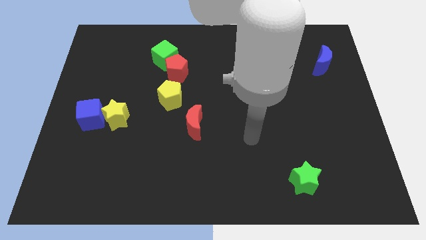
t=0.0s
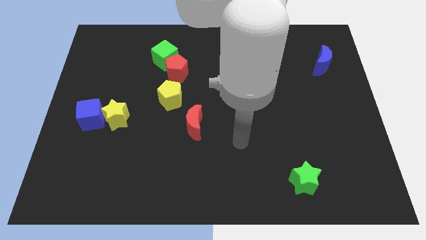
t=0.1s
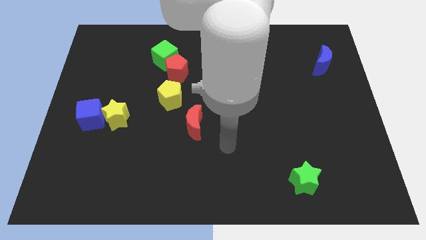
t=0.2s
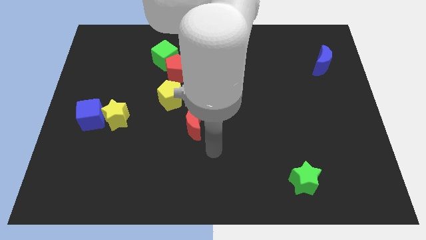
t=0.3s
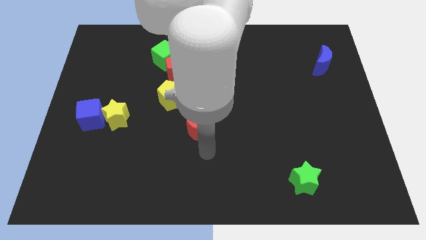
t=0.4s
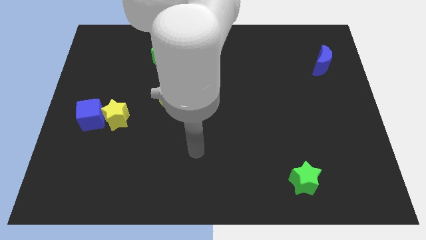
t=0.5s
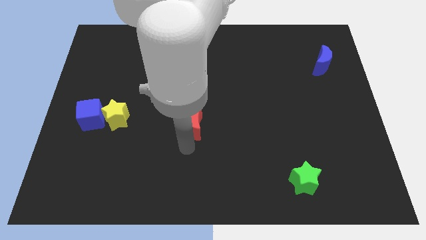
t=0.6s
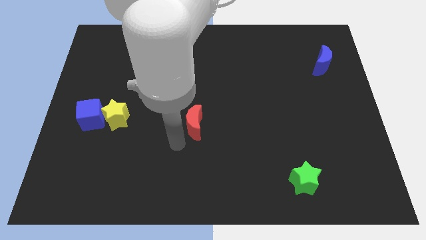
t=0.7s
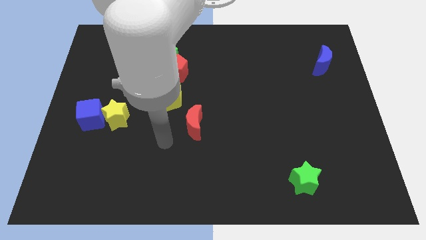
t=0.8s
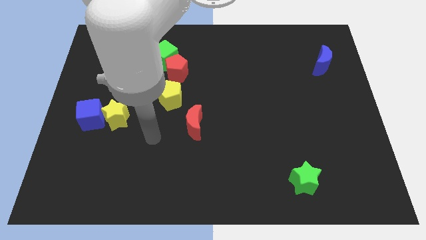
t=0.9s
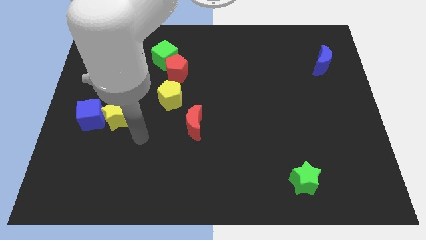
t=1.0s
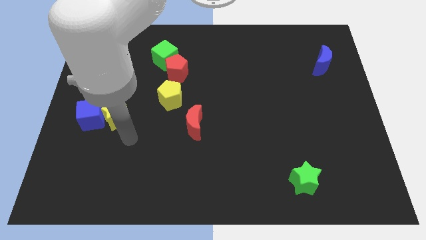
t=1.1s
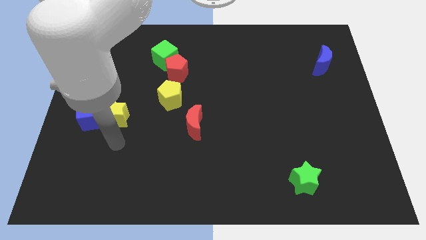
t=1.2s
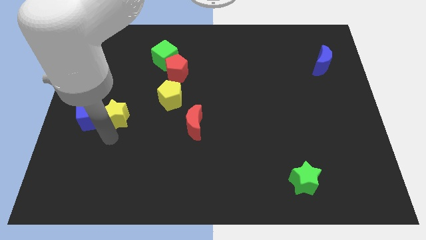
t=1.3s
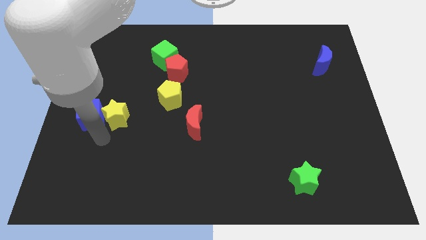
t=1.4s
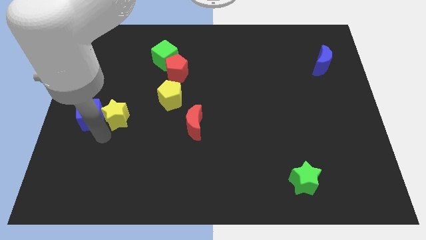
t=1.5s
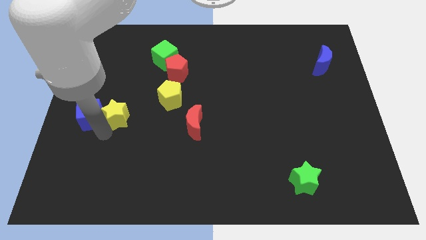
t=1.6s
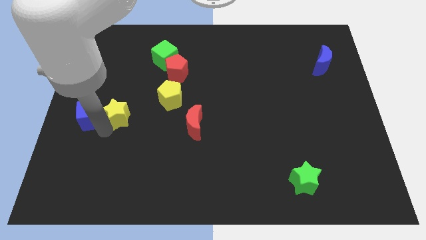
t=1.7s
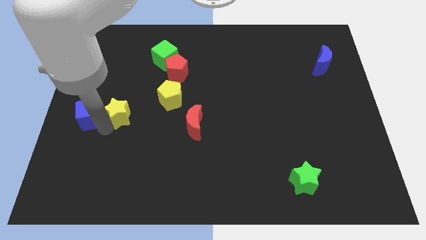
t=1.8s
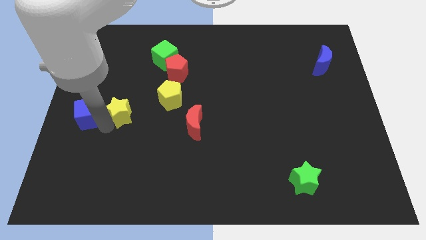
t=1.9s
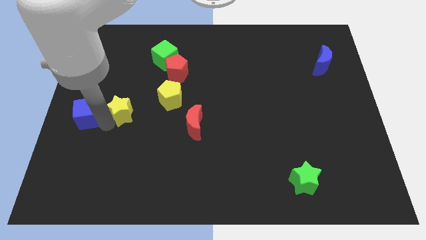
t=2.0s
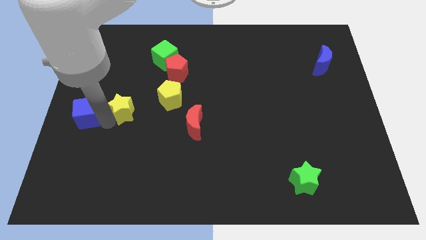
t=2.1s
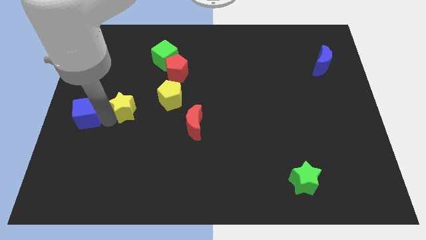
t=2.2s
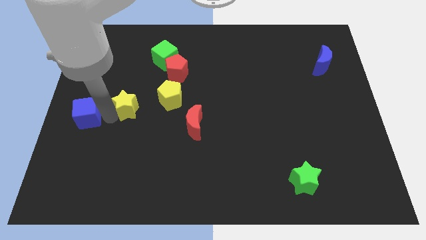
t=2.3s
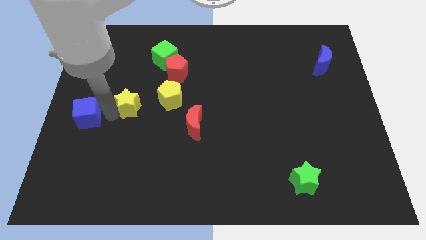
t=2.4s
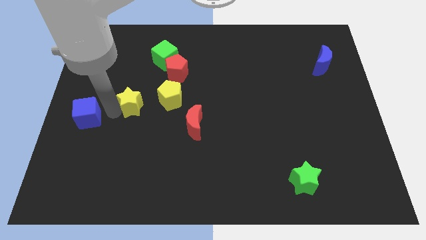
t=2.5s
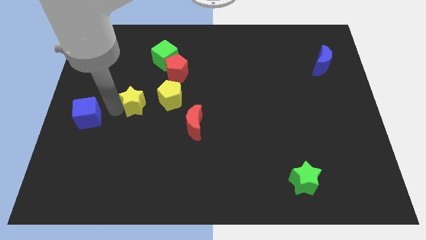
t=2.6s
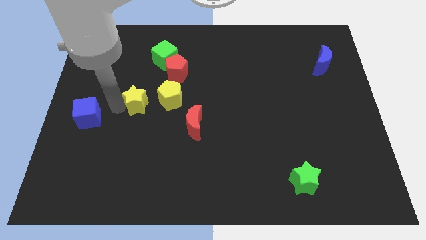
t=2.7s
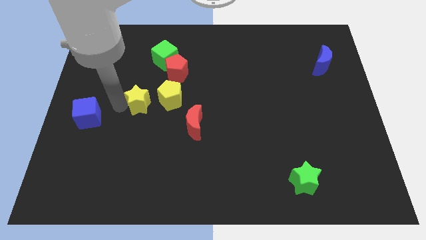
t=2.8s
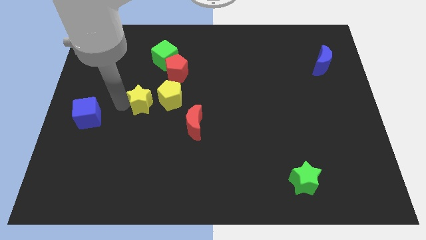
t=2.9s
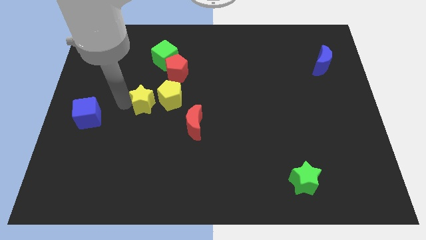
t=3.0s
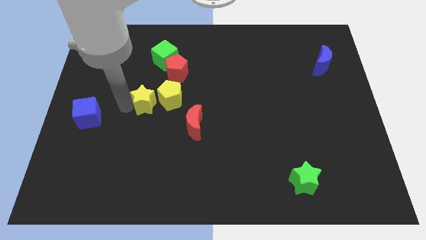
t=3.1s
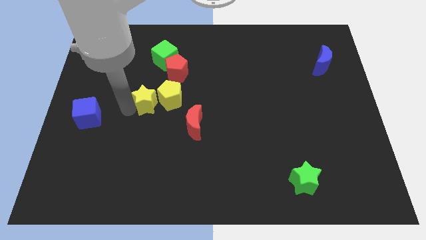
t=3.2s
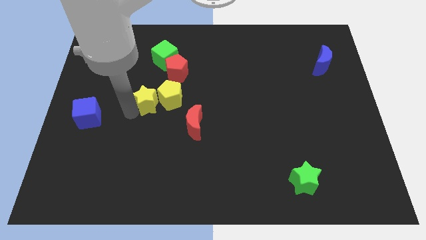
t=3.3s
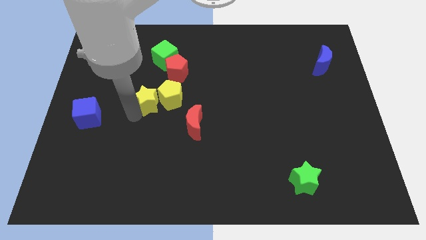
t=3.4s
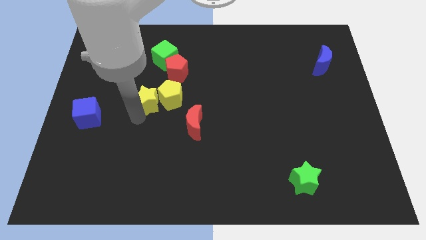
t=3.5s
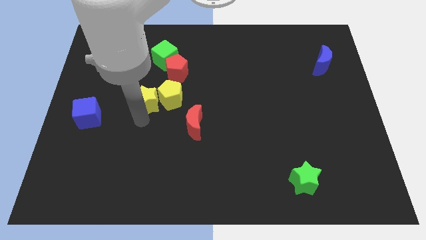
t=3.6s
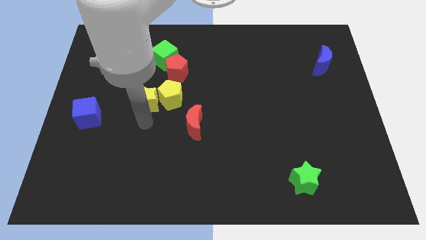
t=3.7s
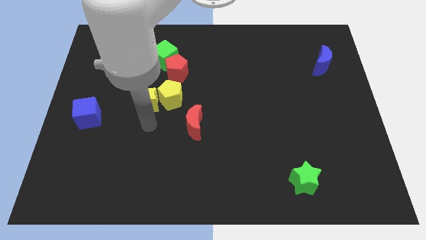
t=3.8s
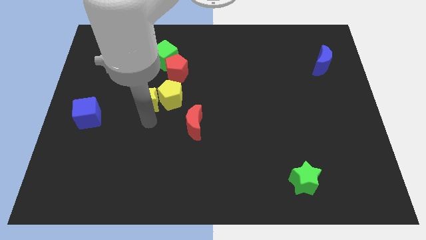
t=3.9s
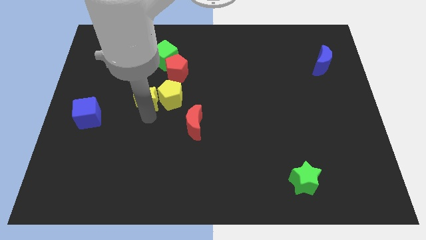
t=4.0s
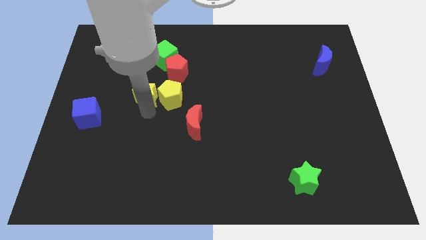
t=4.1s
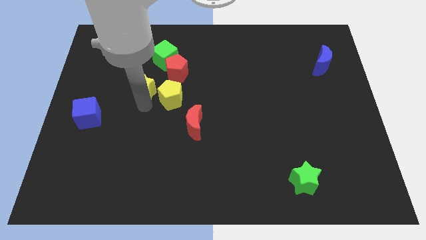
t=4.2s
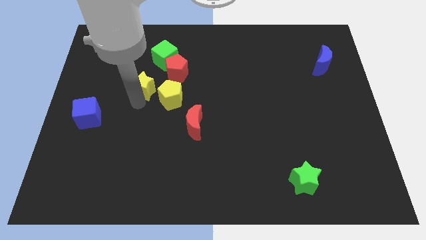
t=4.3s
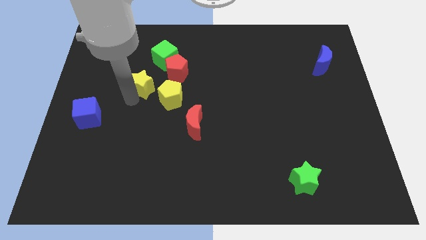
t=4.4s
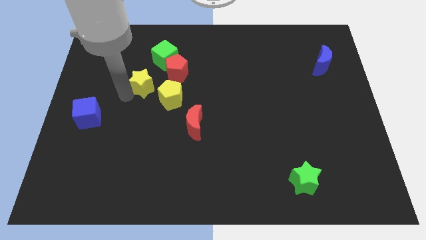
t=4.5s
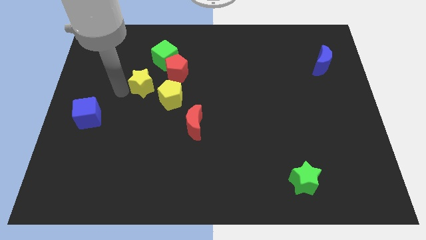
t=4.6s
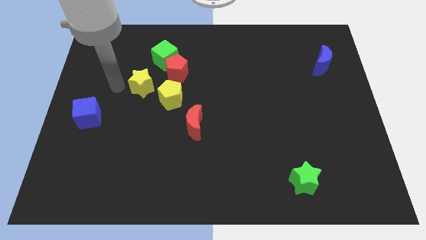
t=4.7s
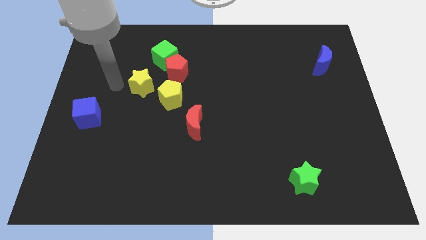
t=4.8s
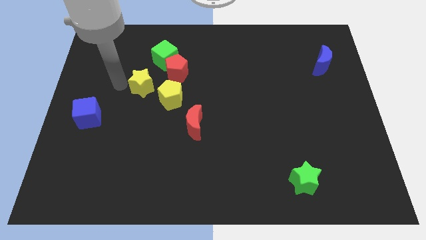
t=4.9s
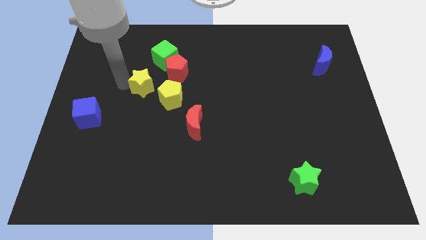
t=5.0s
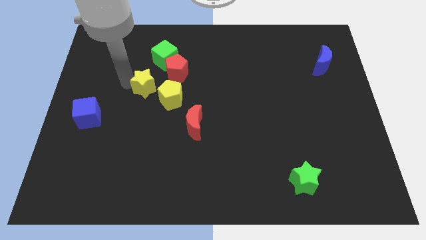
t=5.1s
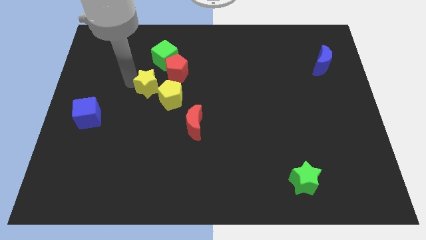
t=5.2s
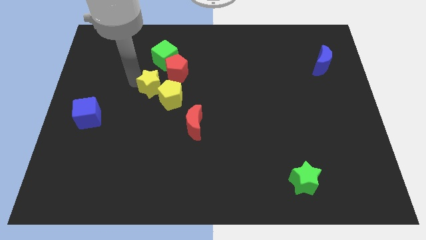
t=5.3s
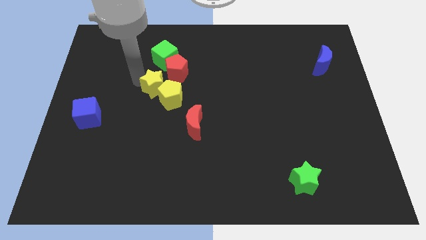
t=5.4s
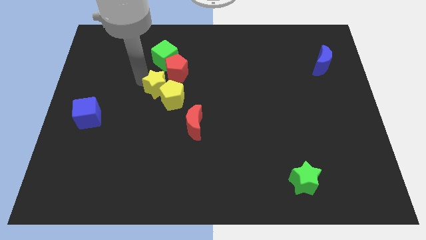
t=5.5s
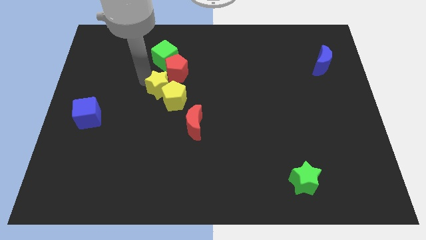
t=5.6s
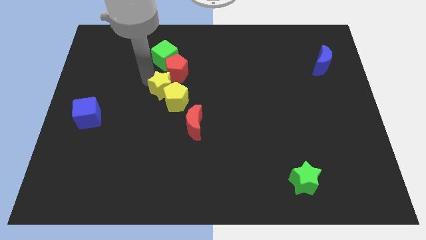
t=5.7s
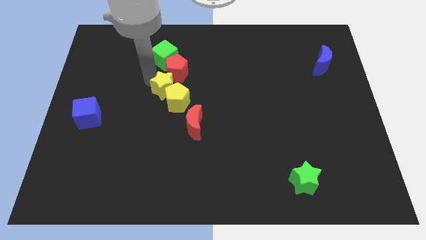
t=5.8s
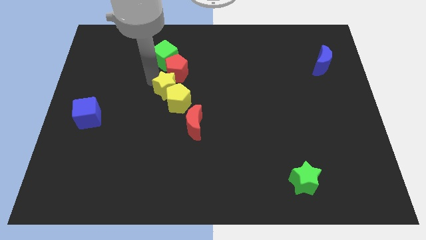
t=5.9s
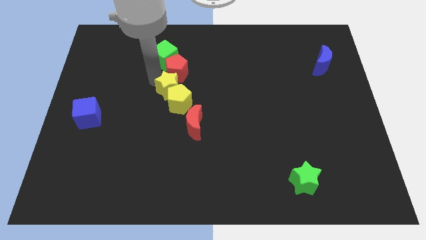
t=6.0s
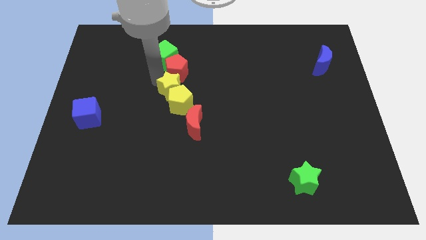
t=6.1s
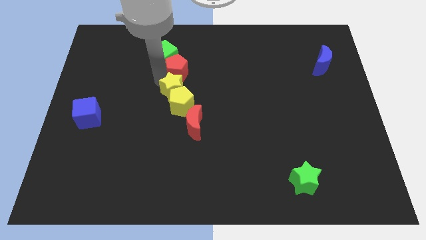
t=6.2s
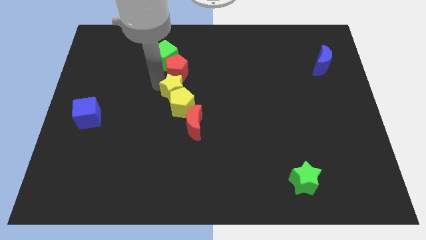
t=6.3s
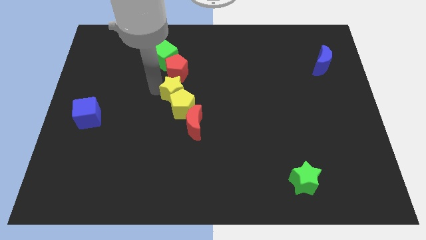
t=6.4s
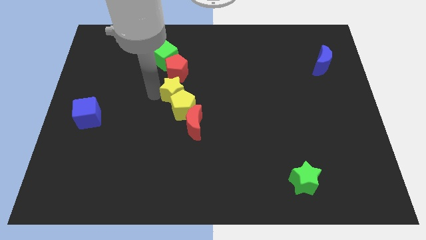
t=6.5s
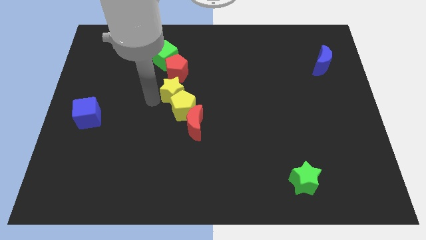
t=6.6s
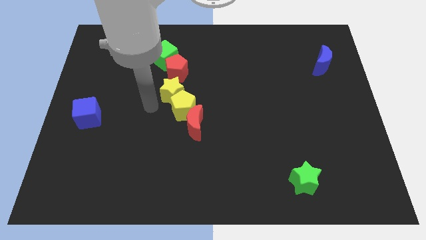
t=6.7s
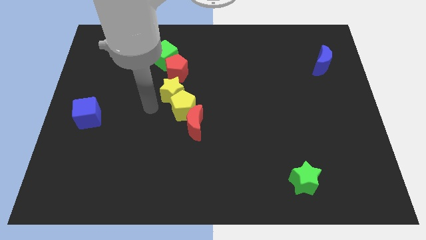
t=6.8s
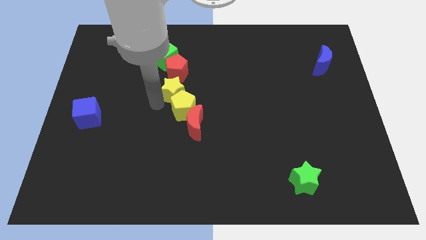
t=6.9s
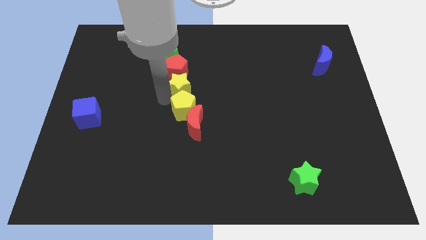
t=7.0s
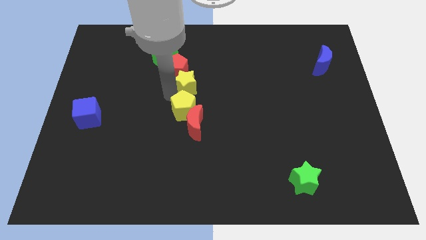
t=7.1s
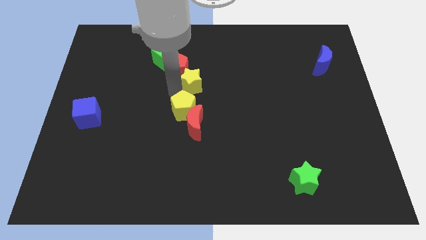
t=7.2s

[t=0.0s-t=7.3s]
move the yellow star to the right side of the red pentagon
